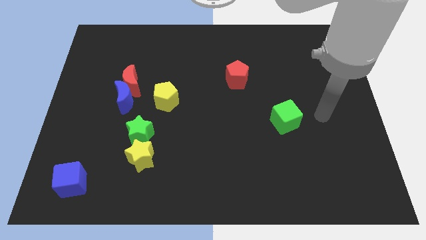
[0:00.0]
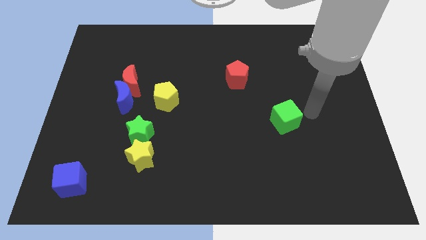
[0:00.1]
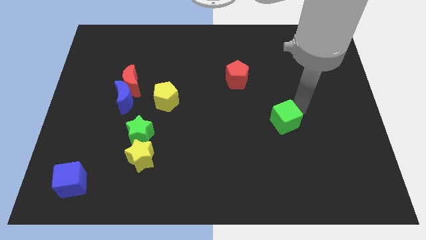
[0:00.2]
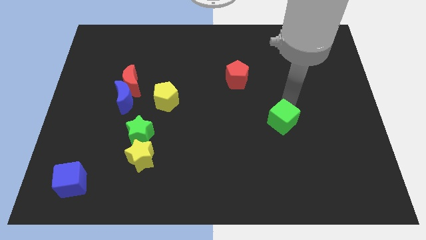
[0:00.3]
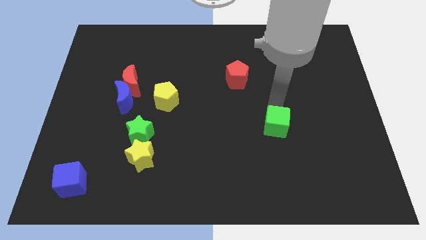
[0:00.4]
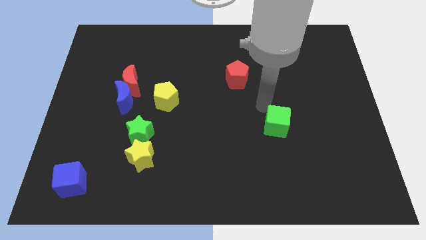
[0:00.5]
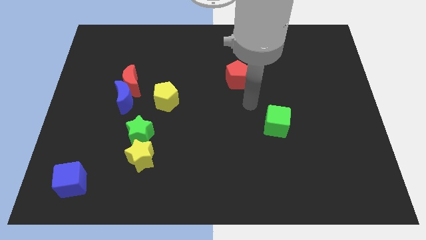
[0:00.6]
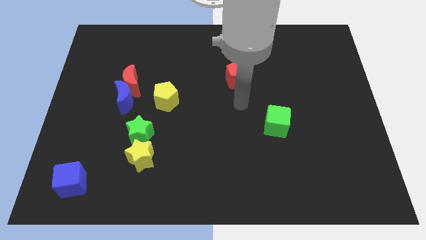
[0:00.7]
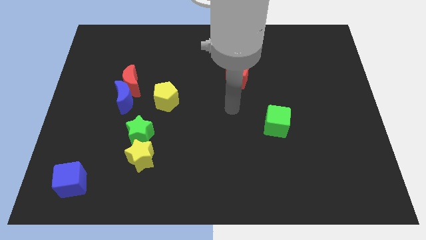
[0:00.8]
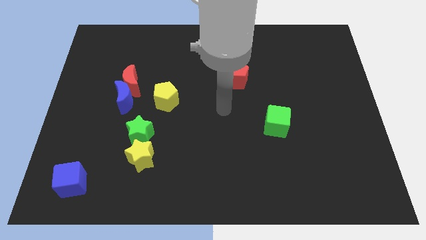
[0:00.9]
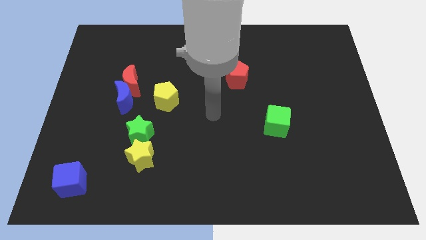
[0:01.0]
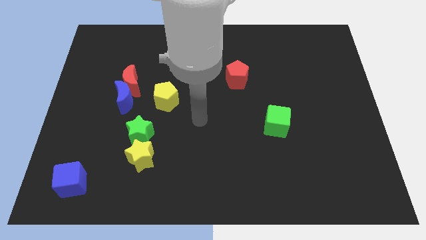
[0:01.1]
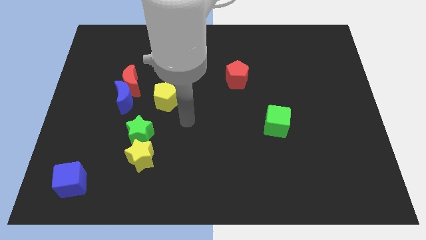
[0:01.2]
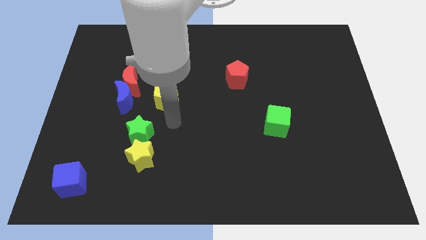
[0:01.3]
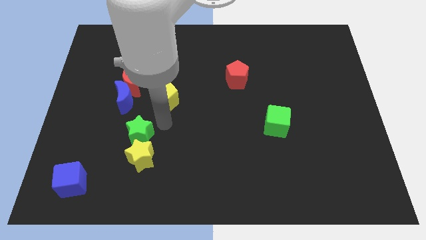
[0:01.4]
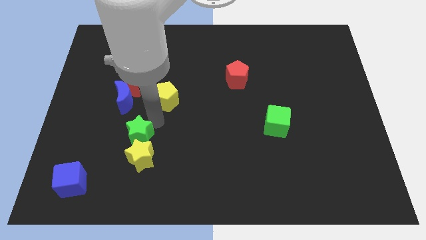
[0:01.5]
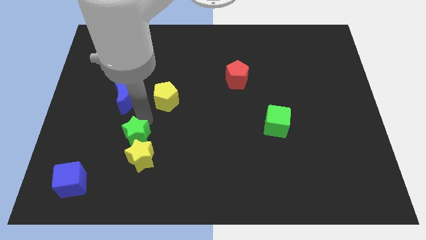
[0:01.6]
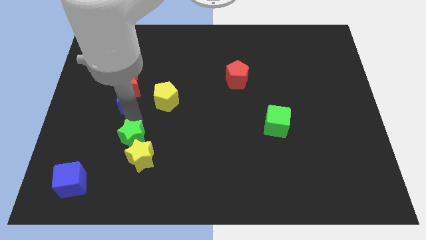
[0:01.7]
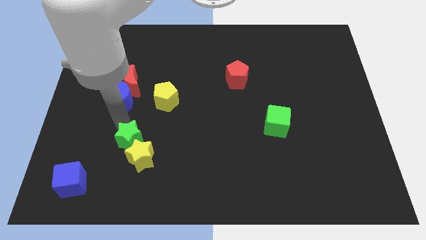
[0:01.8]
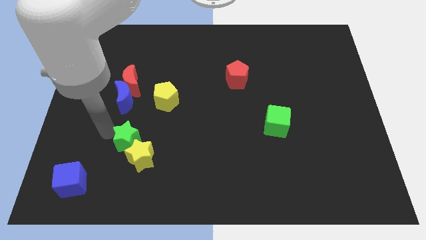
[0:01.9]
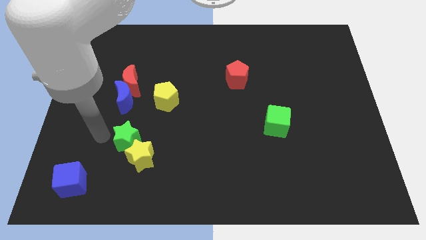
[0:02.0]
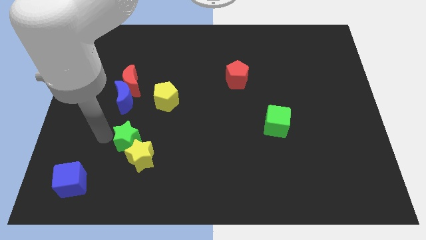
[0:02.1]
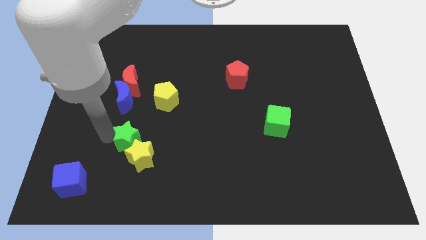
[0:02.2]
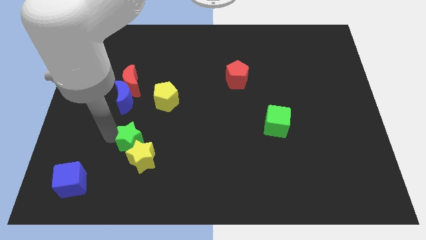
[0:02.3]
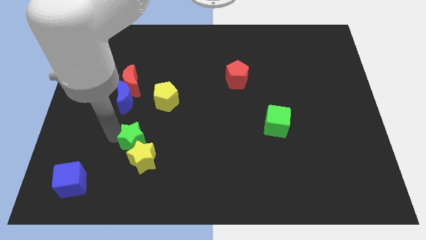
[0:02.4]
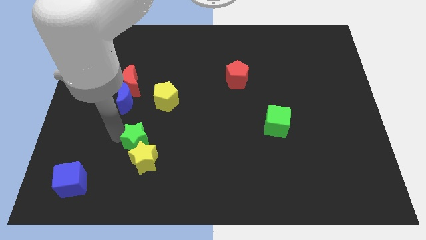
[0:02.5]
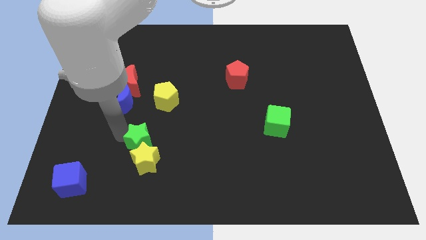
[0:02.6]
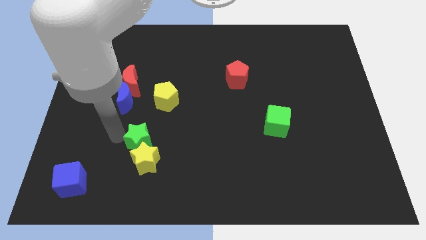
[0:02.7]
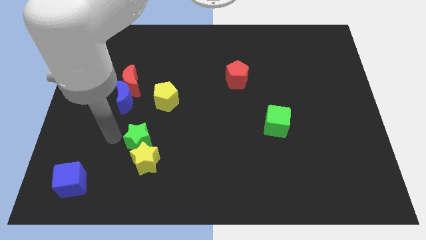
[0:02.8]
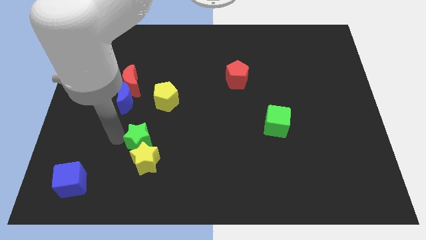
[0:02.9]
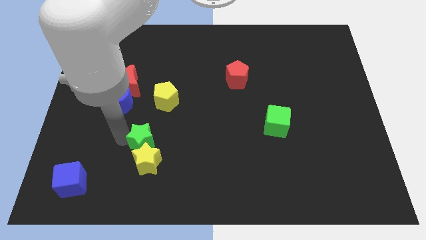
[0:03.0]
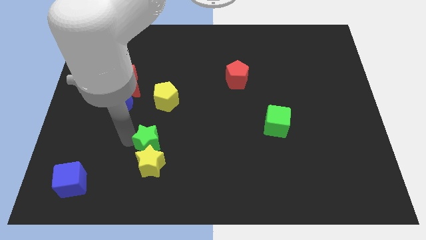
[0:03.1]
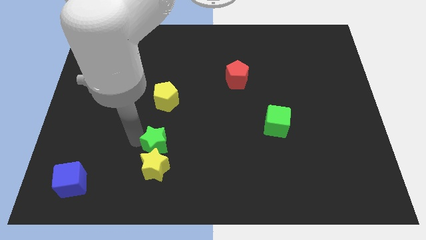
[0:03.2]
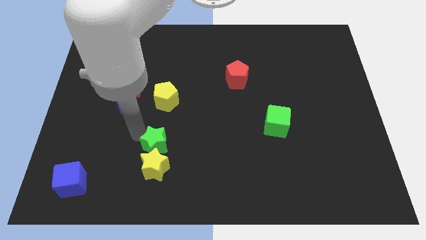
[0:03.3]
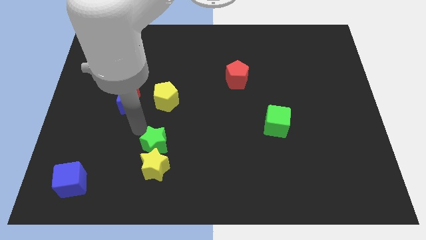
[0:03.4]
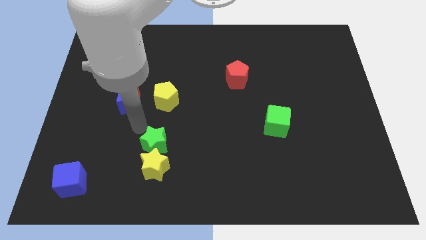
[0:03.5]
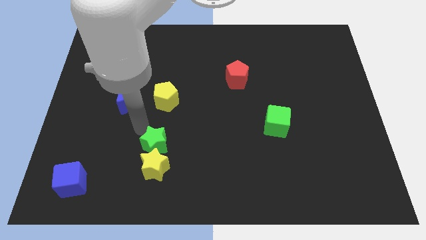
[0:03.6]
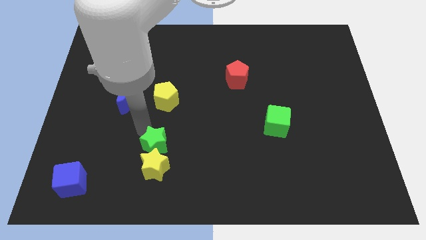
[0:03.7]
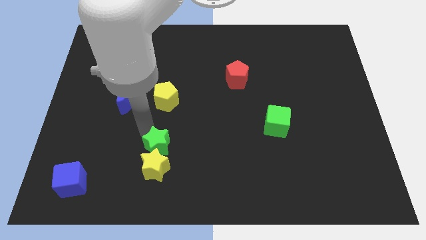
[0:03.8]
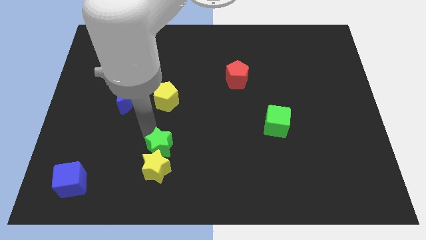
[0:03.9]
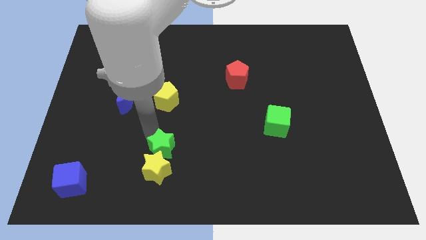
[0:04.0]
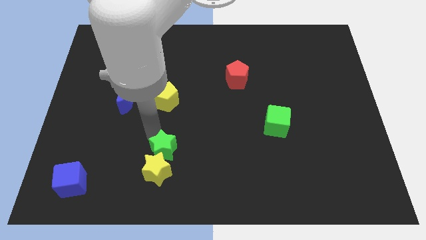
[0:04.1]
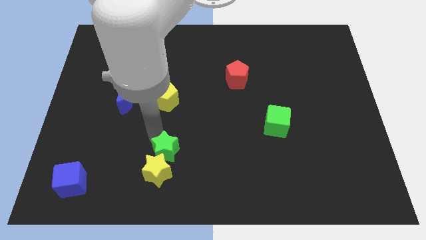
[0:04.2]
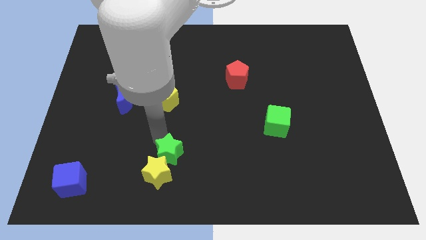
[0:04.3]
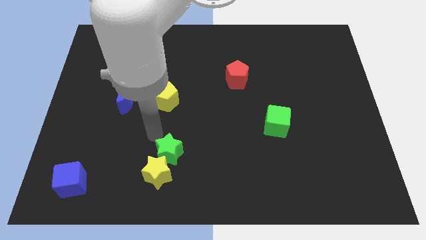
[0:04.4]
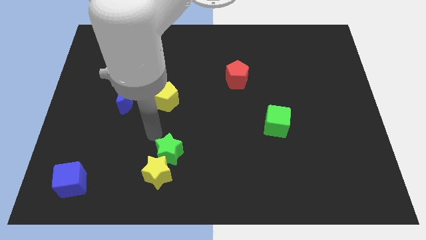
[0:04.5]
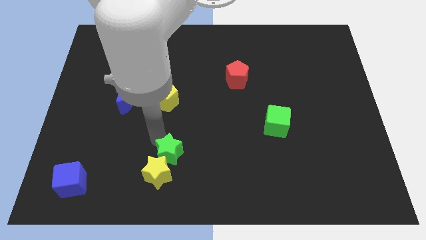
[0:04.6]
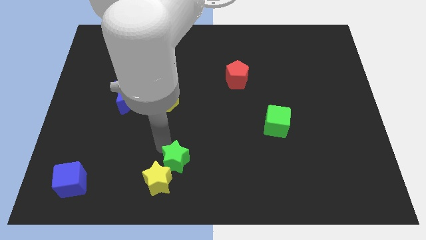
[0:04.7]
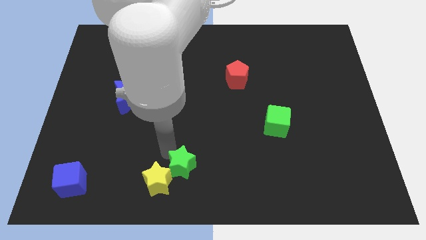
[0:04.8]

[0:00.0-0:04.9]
move the green star to the bottom
